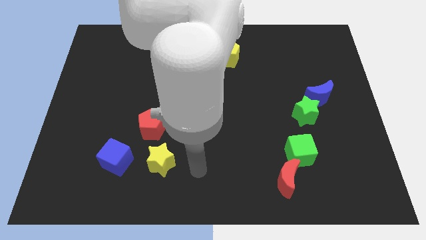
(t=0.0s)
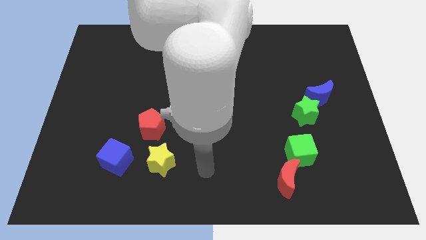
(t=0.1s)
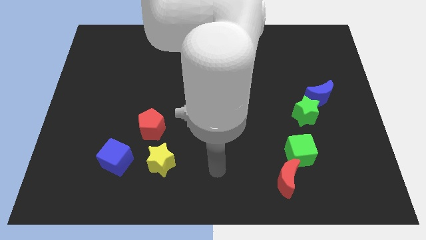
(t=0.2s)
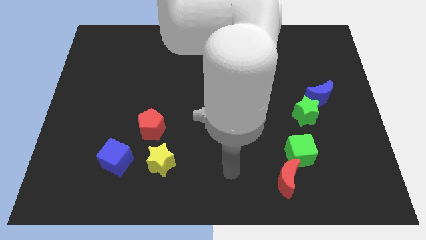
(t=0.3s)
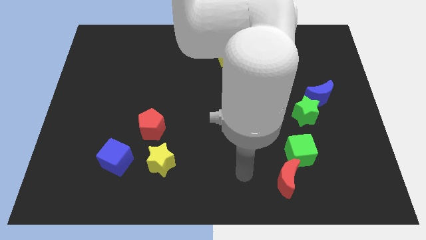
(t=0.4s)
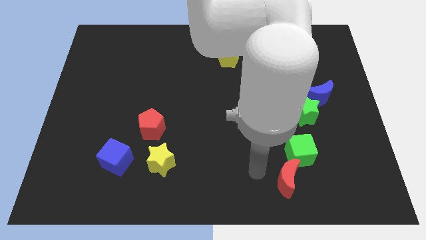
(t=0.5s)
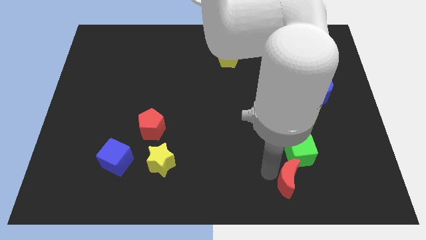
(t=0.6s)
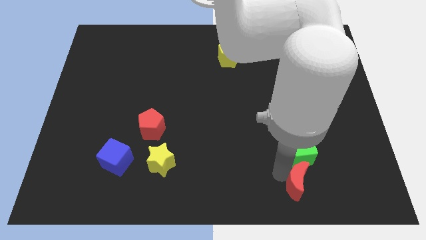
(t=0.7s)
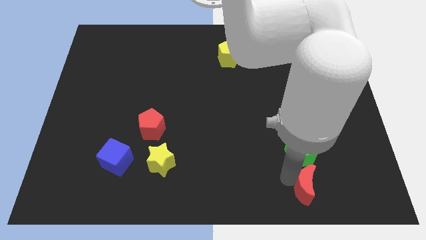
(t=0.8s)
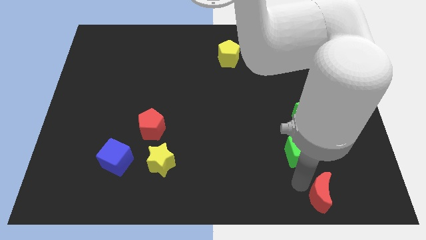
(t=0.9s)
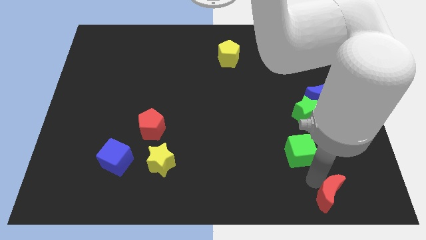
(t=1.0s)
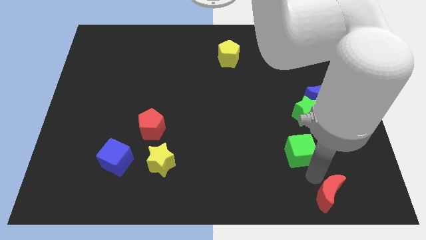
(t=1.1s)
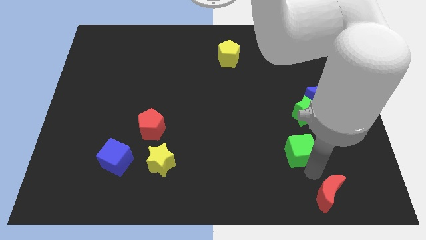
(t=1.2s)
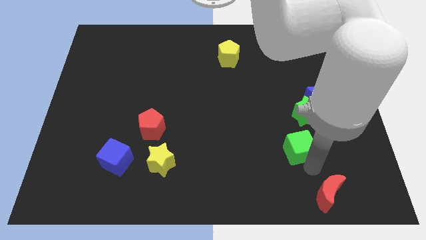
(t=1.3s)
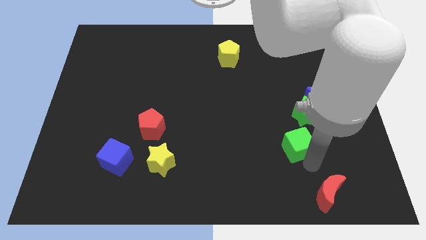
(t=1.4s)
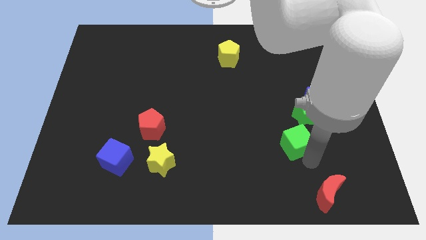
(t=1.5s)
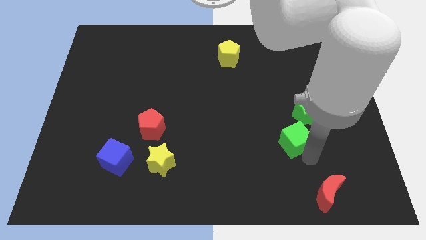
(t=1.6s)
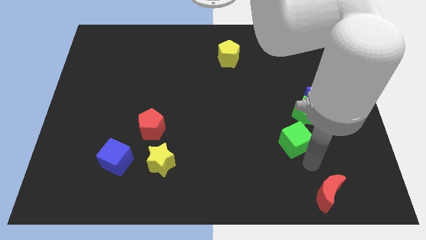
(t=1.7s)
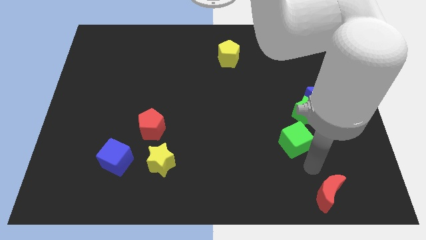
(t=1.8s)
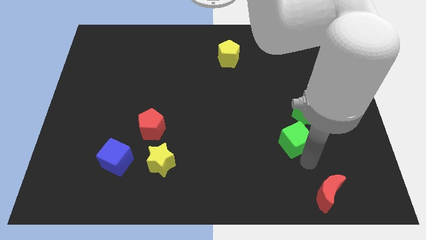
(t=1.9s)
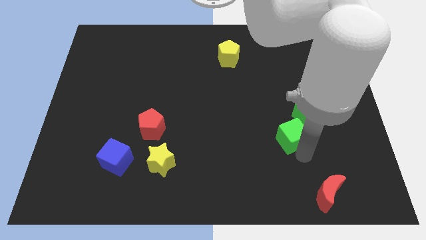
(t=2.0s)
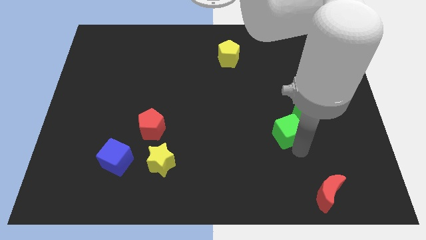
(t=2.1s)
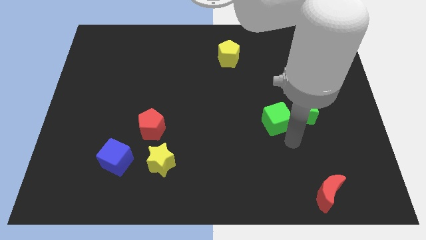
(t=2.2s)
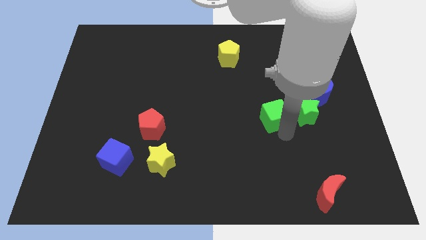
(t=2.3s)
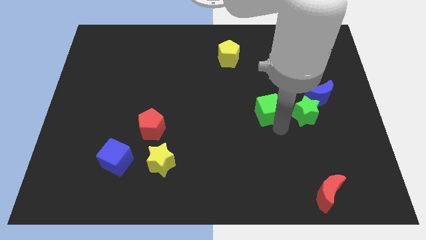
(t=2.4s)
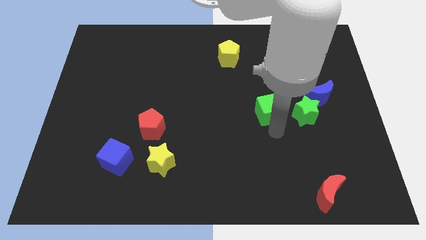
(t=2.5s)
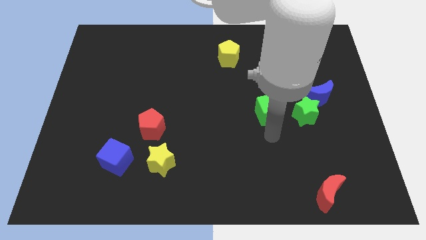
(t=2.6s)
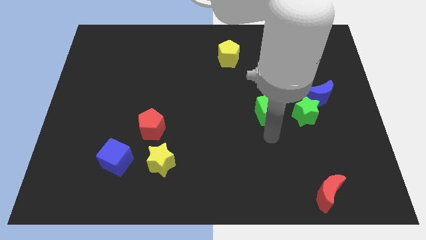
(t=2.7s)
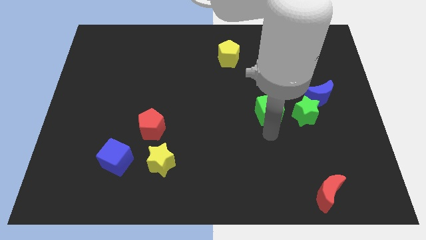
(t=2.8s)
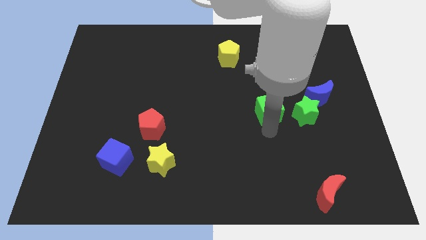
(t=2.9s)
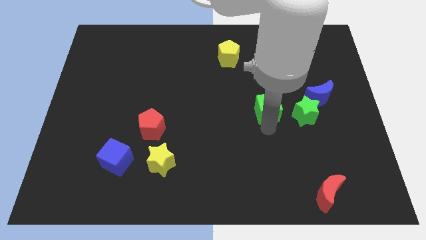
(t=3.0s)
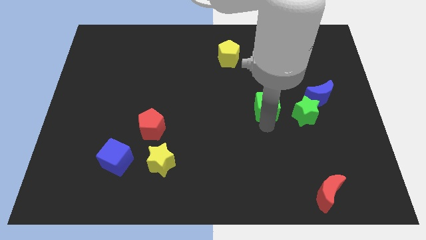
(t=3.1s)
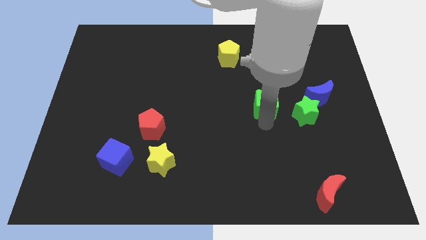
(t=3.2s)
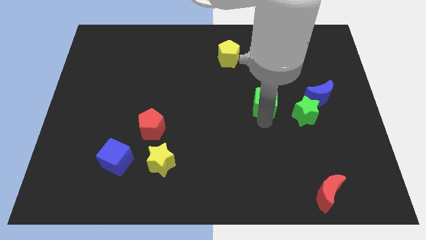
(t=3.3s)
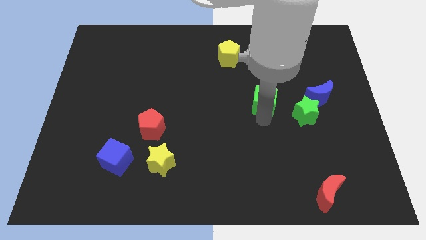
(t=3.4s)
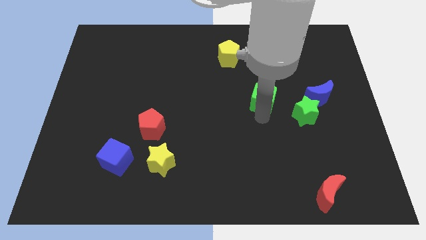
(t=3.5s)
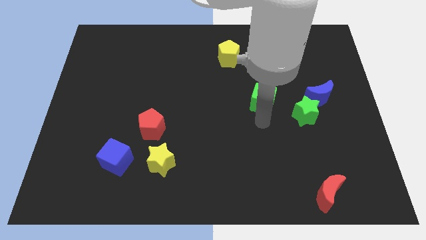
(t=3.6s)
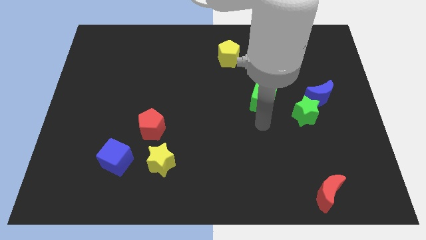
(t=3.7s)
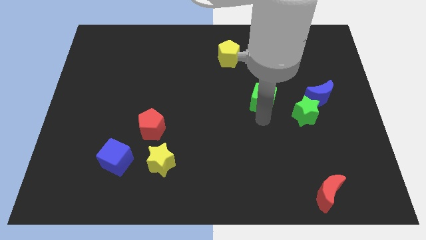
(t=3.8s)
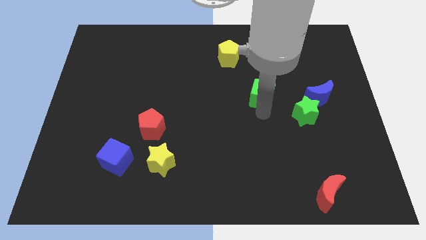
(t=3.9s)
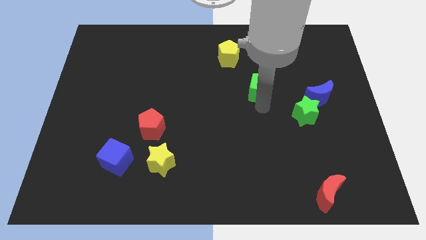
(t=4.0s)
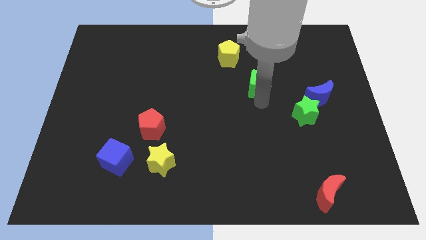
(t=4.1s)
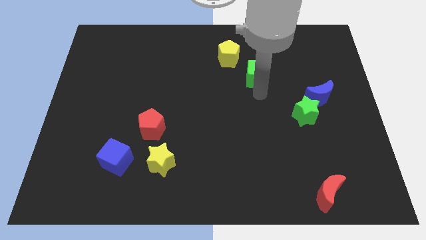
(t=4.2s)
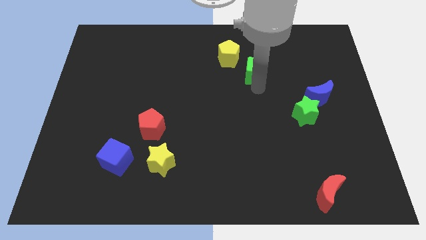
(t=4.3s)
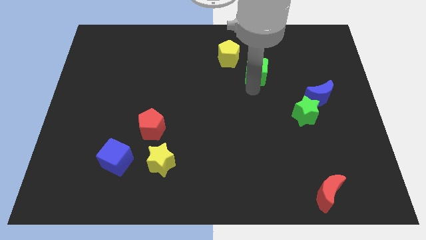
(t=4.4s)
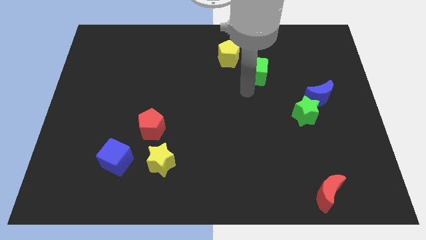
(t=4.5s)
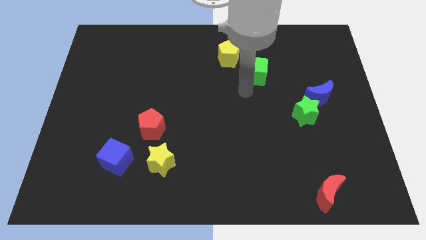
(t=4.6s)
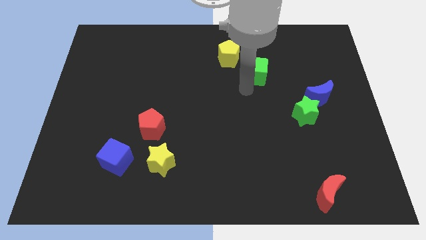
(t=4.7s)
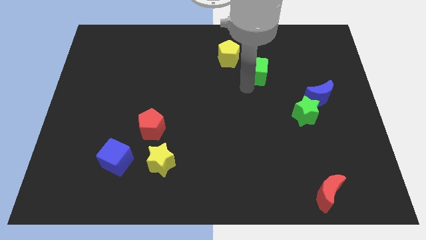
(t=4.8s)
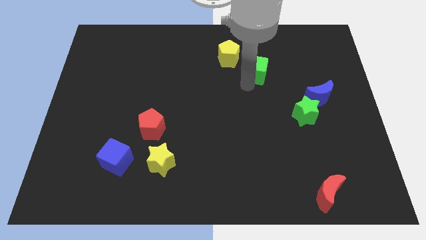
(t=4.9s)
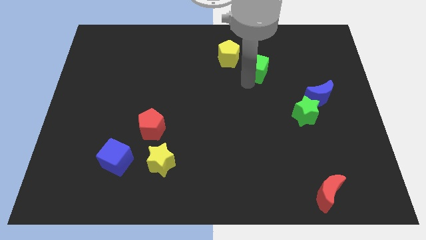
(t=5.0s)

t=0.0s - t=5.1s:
move the green cube to the right side of the yellow pentagon

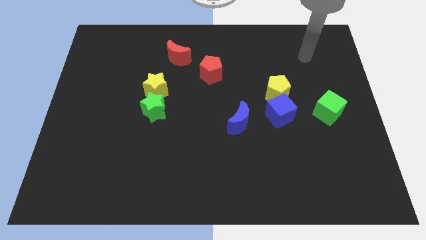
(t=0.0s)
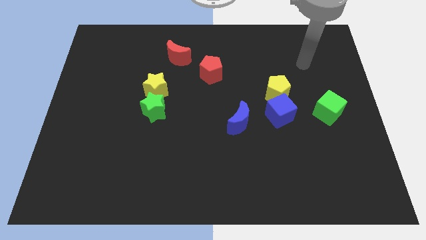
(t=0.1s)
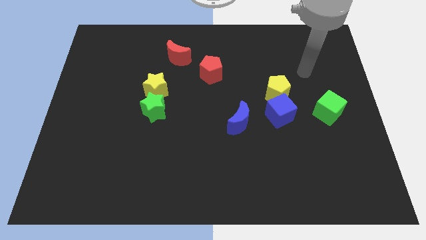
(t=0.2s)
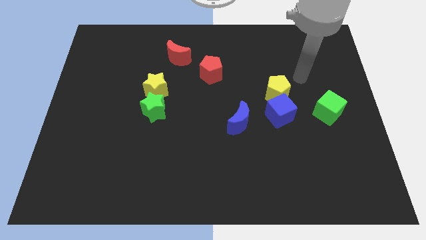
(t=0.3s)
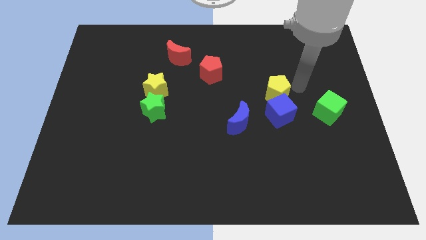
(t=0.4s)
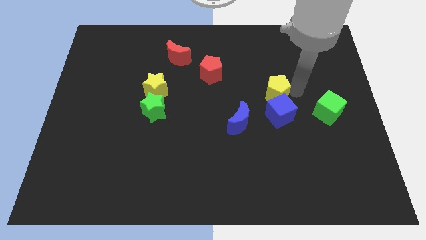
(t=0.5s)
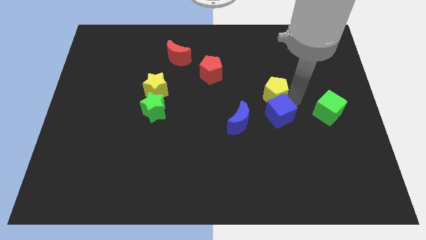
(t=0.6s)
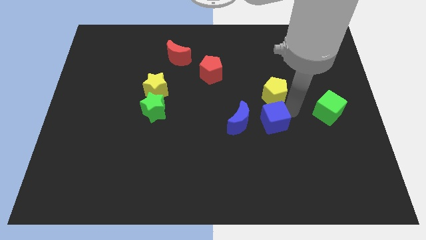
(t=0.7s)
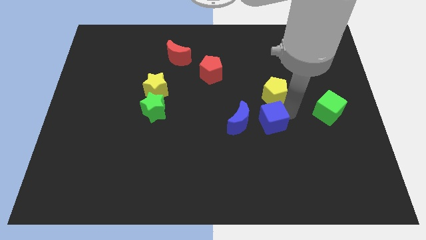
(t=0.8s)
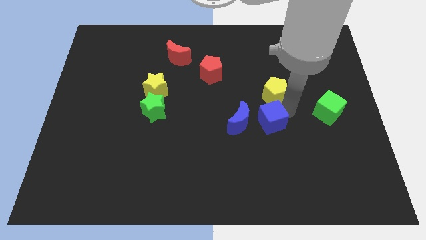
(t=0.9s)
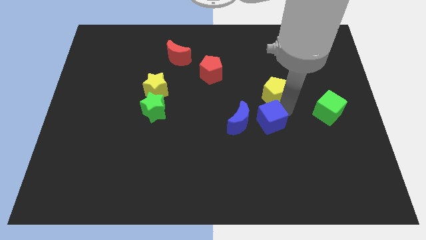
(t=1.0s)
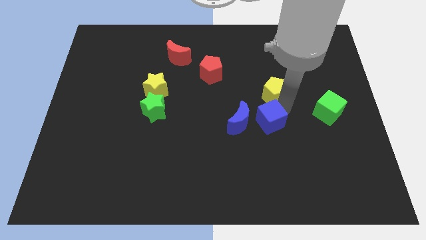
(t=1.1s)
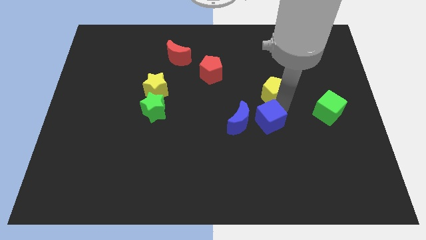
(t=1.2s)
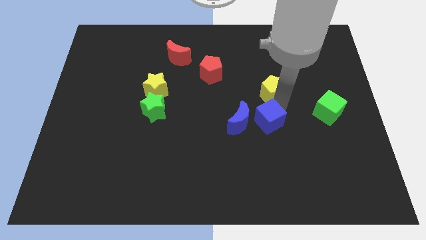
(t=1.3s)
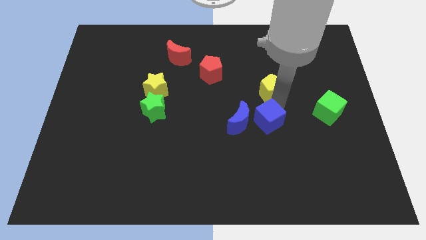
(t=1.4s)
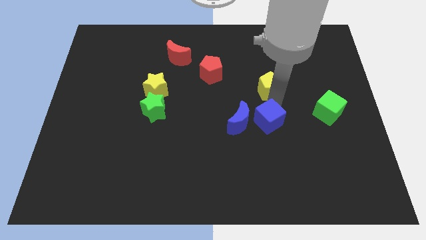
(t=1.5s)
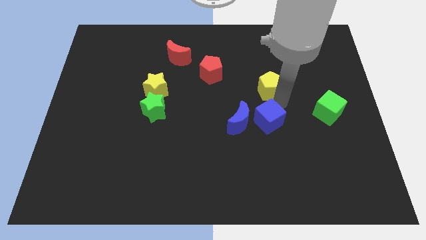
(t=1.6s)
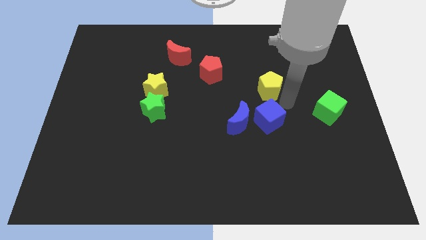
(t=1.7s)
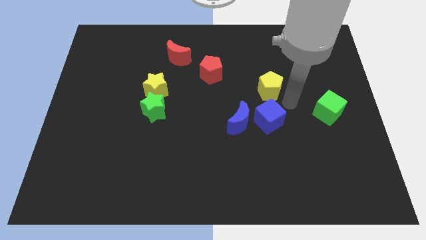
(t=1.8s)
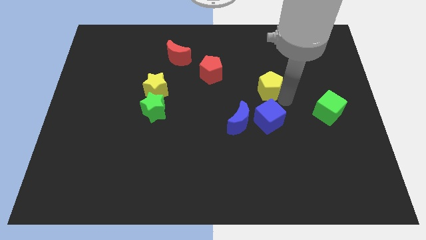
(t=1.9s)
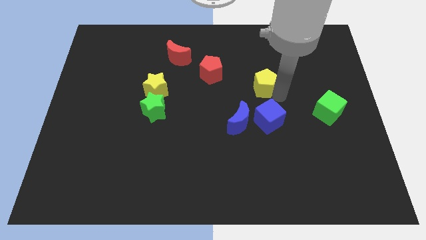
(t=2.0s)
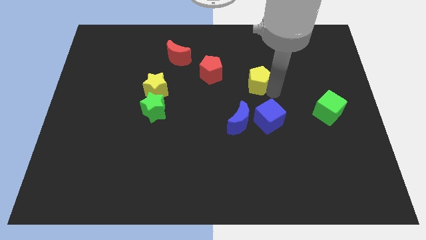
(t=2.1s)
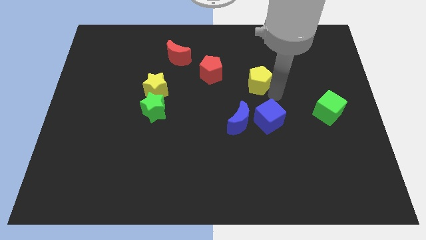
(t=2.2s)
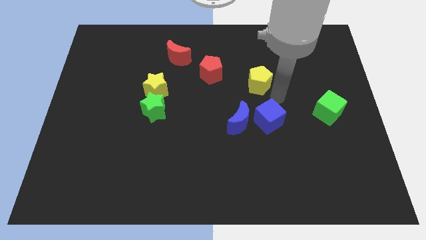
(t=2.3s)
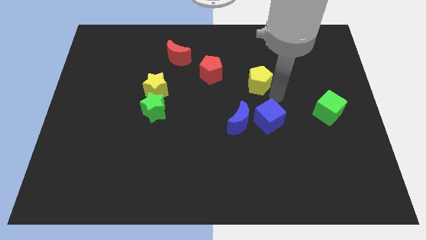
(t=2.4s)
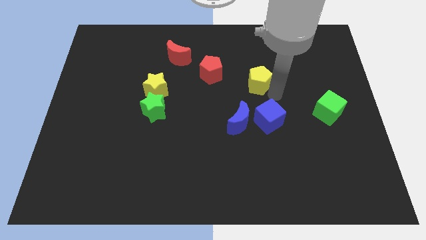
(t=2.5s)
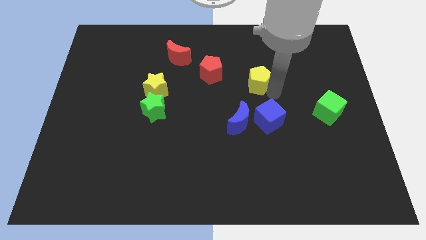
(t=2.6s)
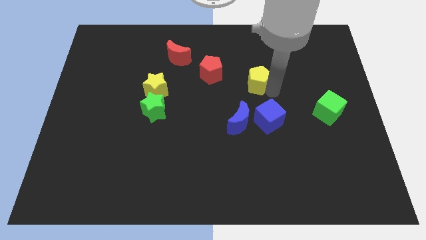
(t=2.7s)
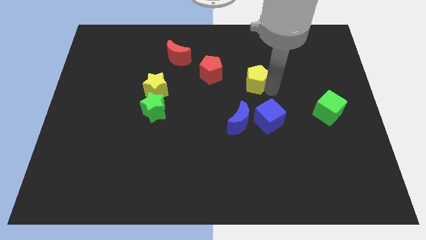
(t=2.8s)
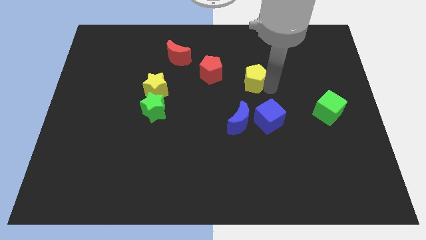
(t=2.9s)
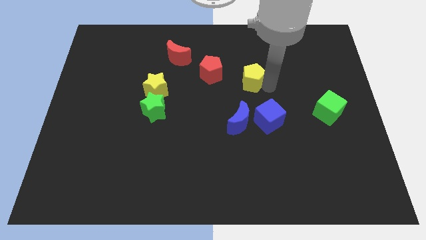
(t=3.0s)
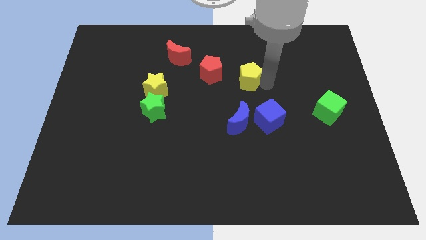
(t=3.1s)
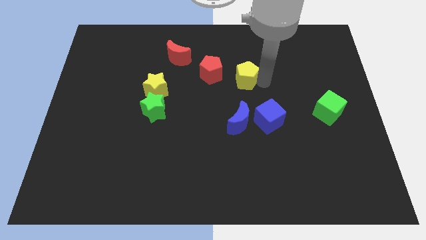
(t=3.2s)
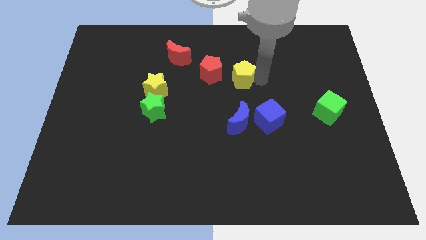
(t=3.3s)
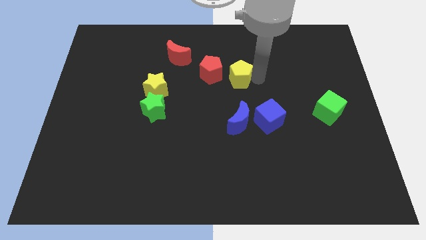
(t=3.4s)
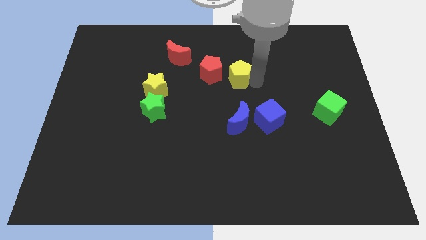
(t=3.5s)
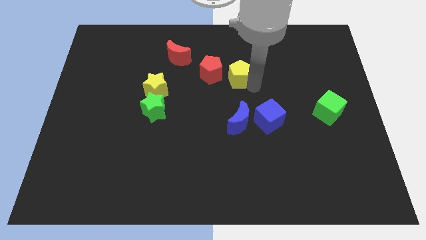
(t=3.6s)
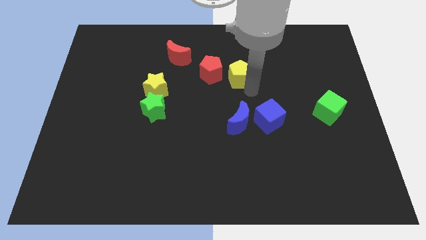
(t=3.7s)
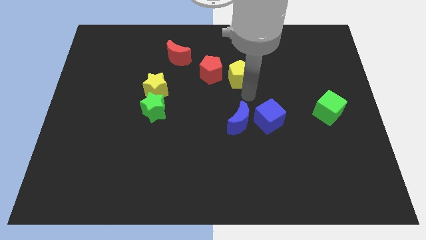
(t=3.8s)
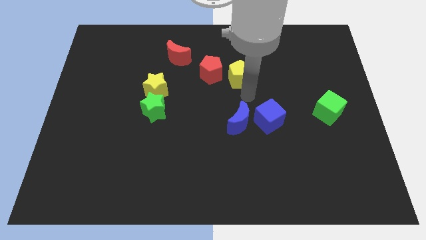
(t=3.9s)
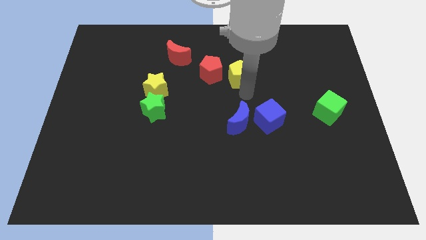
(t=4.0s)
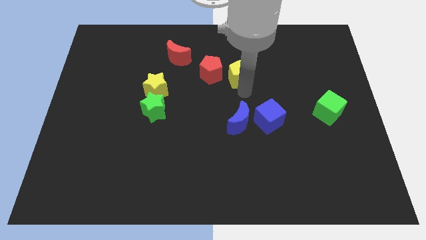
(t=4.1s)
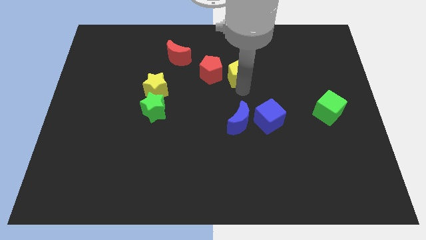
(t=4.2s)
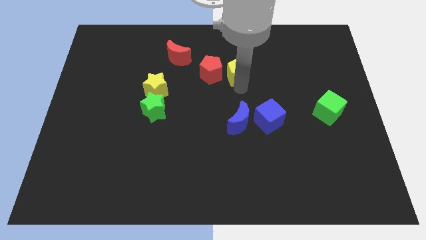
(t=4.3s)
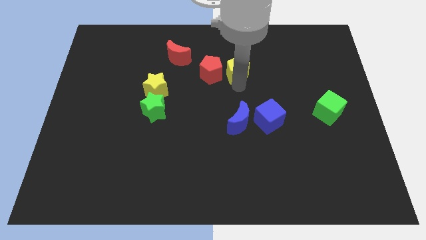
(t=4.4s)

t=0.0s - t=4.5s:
push the yellow pentagon to the top right of the red pentagon
